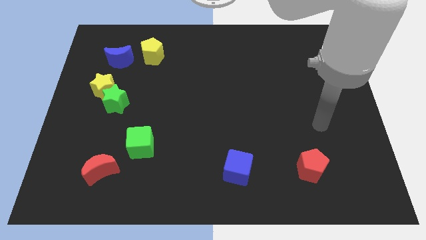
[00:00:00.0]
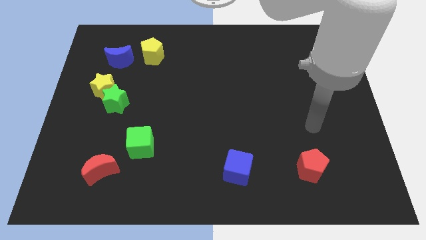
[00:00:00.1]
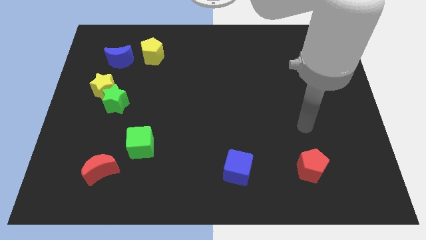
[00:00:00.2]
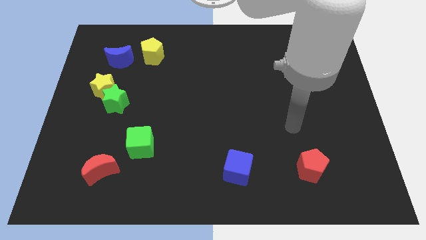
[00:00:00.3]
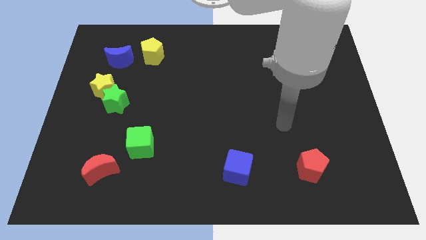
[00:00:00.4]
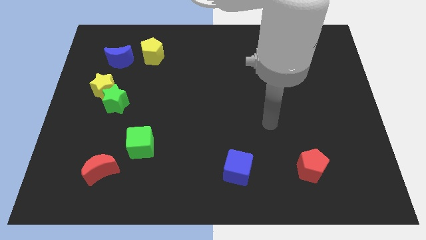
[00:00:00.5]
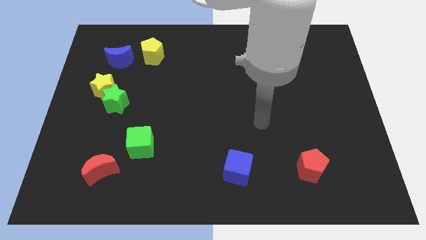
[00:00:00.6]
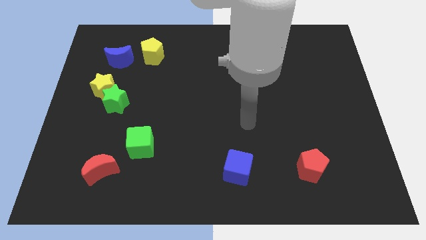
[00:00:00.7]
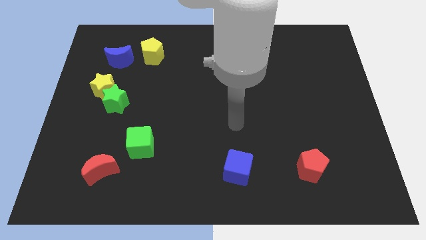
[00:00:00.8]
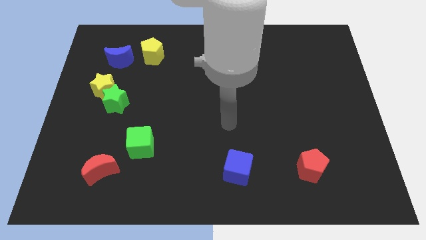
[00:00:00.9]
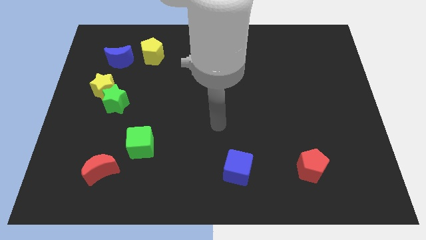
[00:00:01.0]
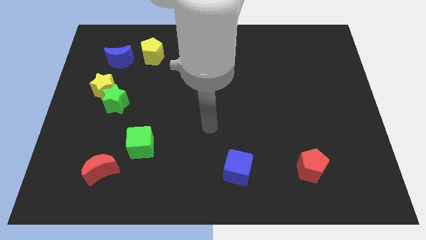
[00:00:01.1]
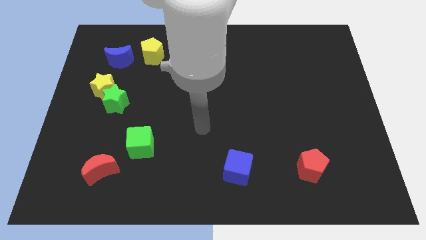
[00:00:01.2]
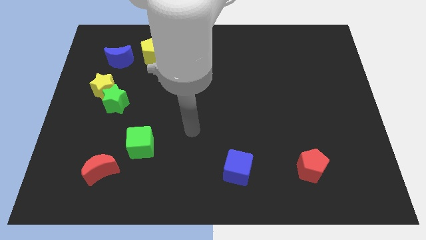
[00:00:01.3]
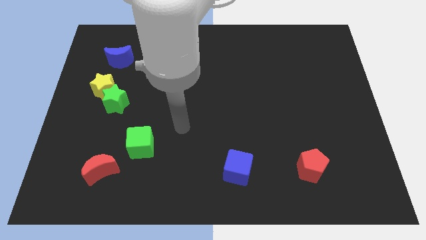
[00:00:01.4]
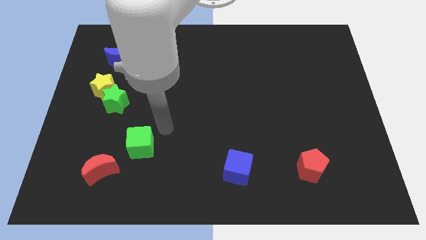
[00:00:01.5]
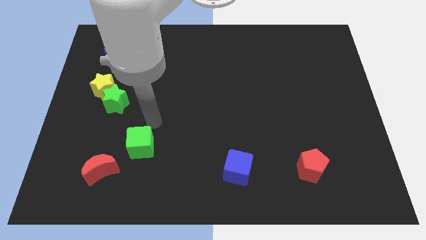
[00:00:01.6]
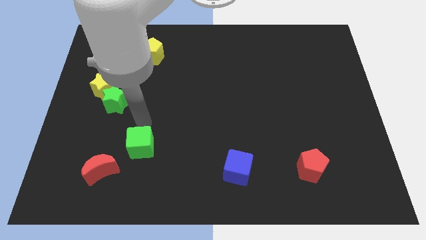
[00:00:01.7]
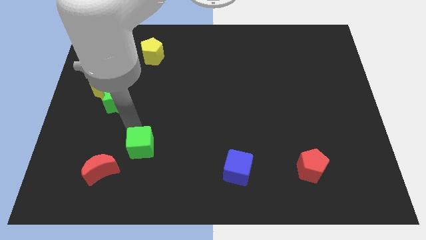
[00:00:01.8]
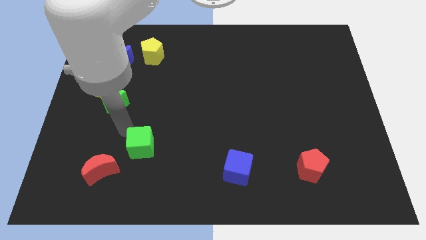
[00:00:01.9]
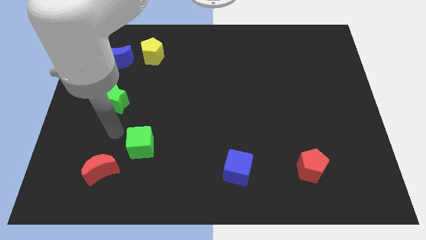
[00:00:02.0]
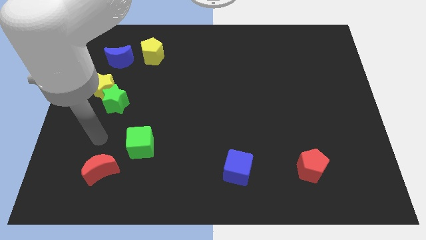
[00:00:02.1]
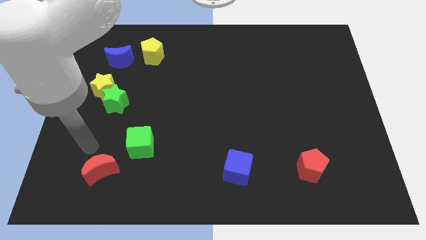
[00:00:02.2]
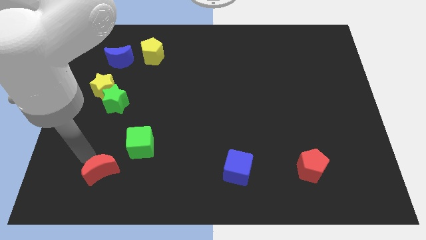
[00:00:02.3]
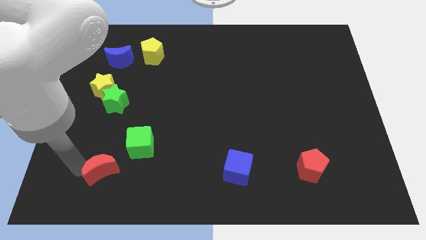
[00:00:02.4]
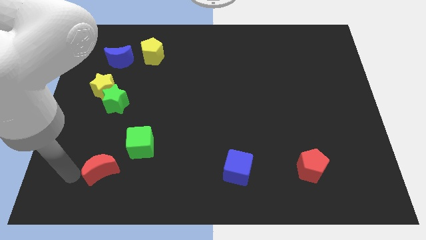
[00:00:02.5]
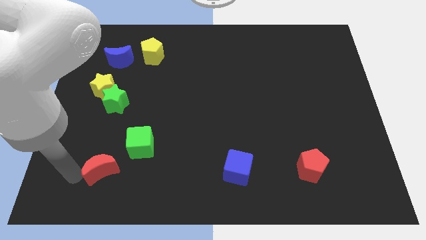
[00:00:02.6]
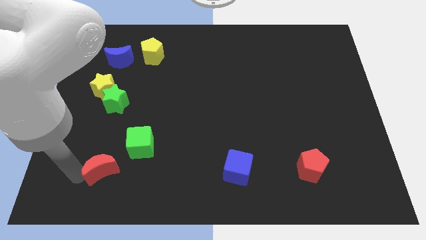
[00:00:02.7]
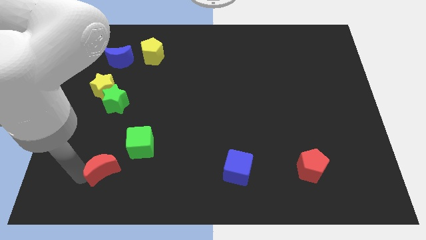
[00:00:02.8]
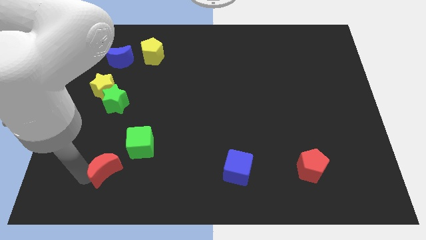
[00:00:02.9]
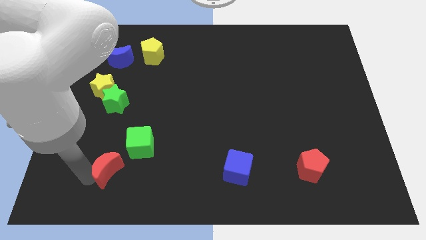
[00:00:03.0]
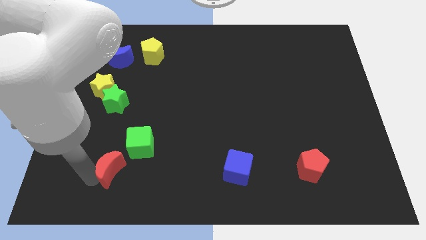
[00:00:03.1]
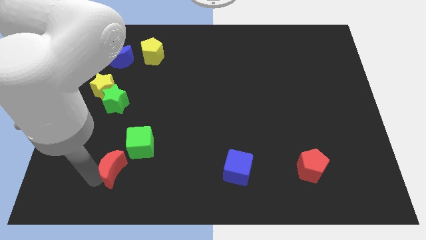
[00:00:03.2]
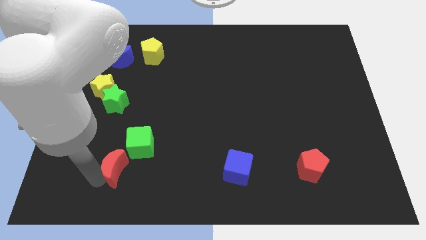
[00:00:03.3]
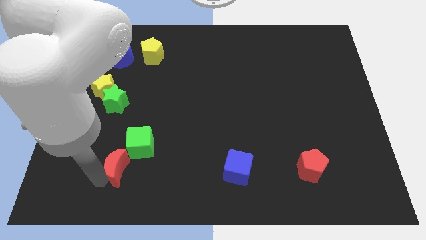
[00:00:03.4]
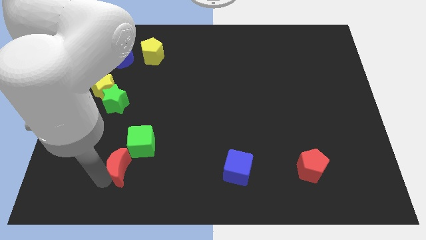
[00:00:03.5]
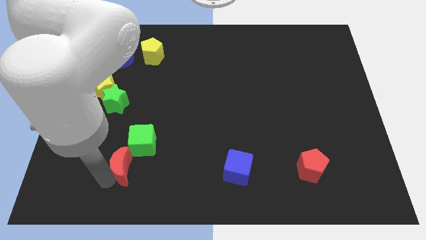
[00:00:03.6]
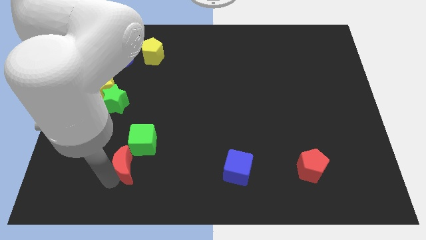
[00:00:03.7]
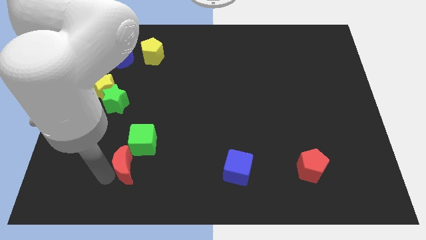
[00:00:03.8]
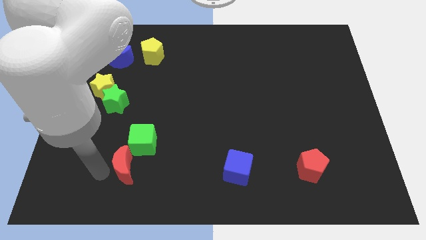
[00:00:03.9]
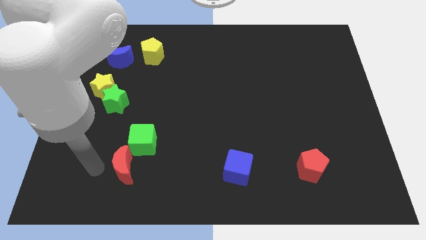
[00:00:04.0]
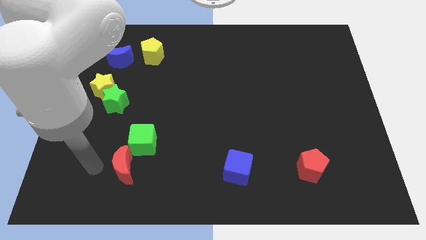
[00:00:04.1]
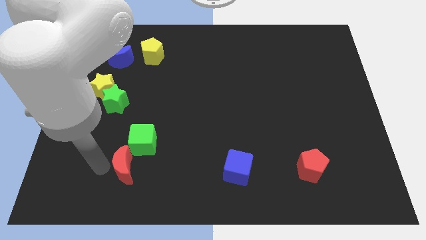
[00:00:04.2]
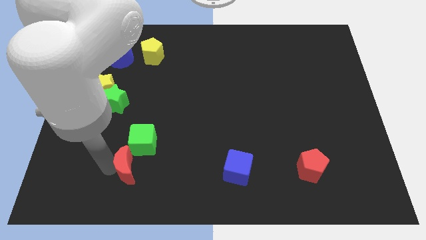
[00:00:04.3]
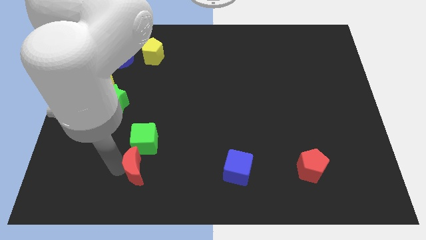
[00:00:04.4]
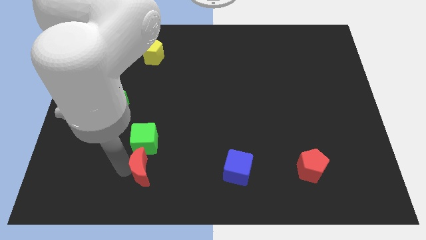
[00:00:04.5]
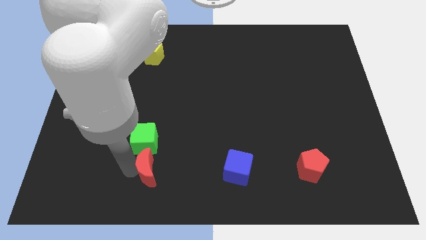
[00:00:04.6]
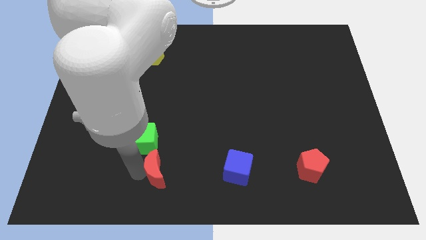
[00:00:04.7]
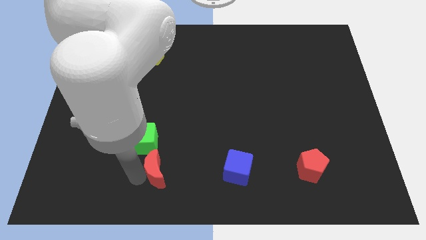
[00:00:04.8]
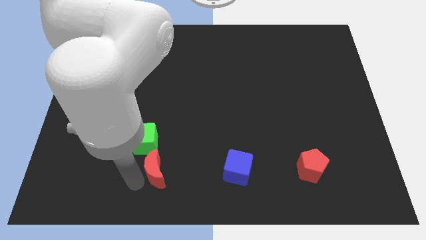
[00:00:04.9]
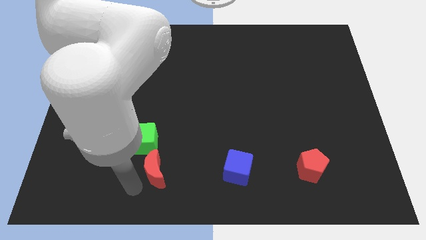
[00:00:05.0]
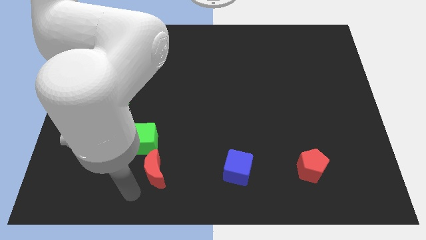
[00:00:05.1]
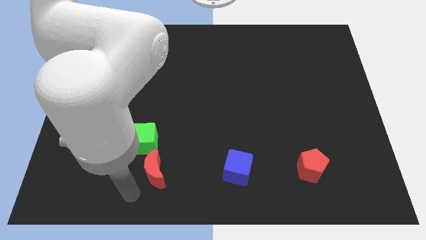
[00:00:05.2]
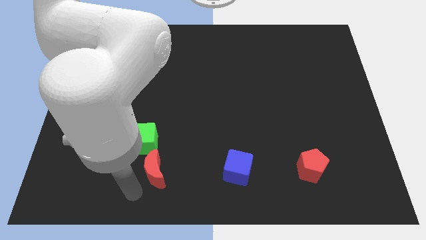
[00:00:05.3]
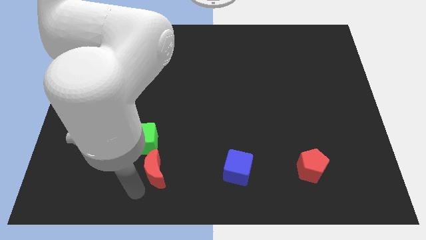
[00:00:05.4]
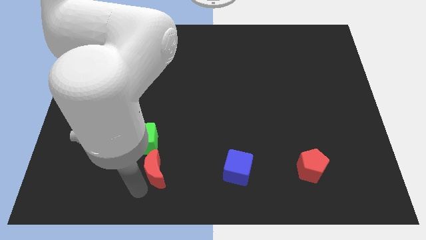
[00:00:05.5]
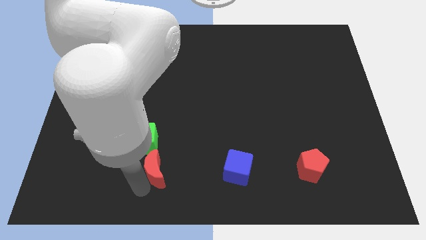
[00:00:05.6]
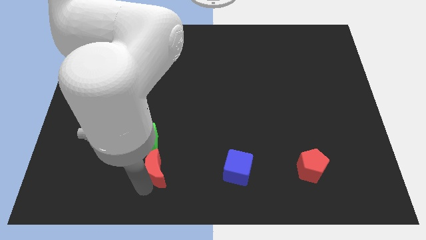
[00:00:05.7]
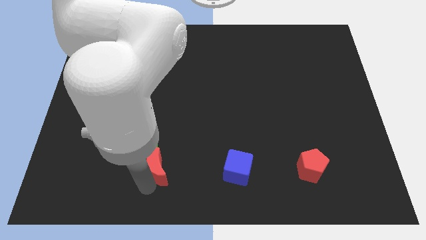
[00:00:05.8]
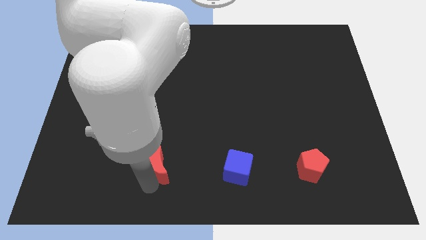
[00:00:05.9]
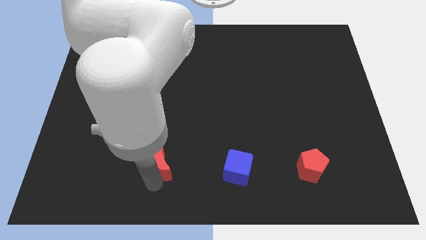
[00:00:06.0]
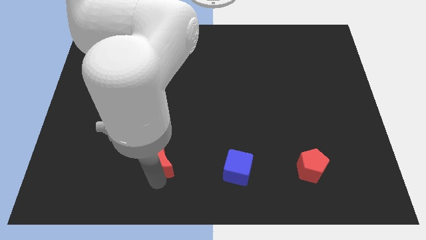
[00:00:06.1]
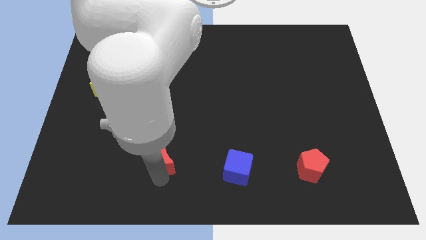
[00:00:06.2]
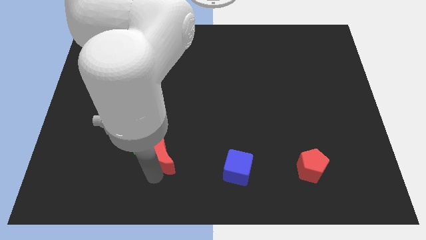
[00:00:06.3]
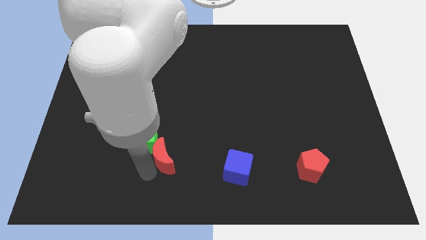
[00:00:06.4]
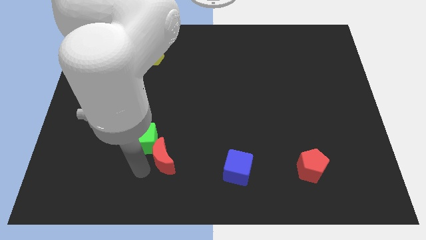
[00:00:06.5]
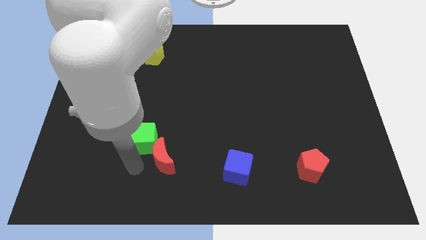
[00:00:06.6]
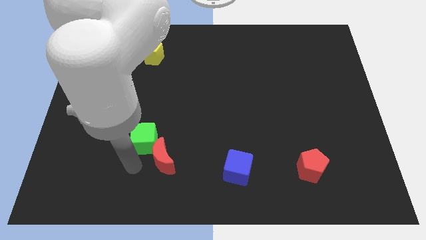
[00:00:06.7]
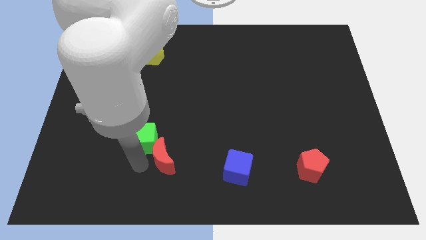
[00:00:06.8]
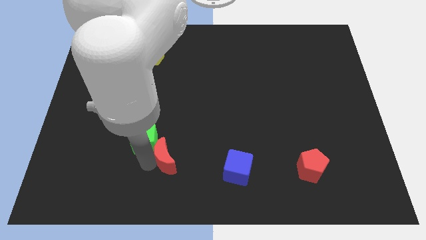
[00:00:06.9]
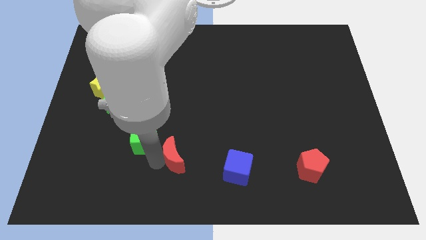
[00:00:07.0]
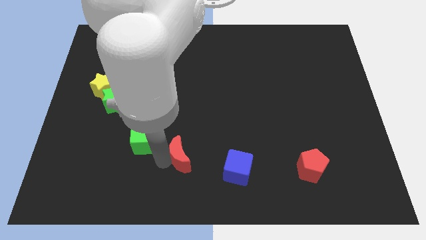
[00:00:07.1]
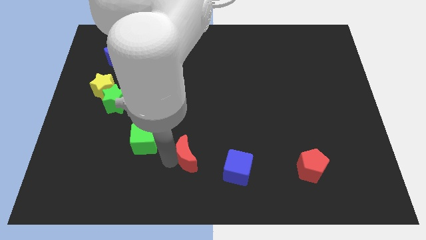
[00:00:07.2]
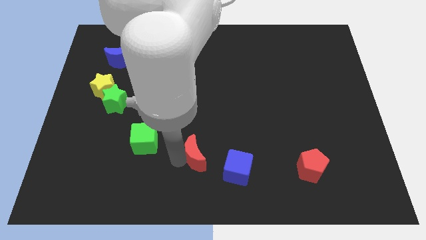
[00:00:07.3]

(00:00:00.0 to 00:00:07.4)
move the red moon to the top left of the blue cube

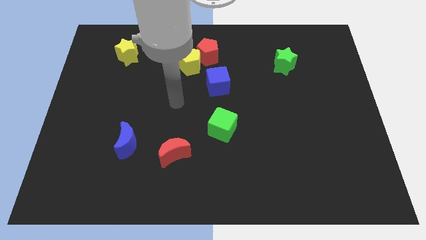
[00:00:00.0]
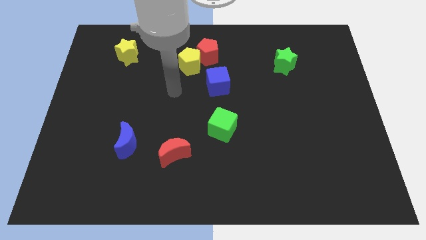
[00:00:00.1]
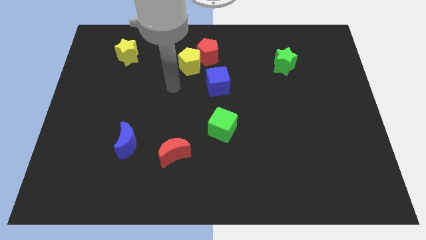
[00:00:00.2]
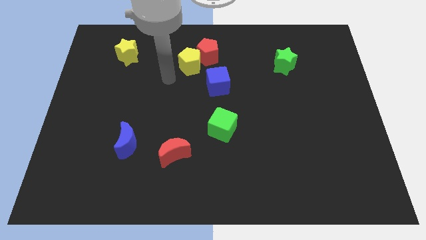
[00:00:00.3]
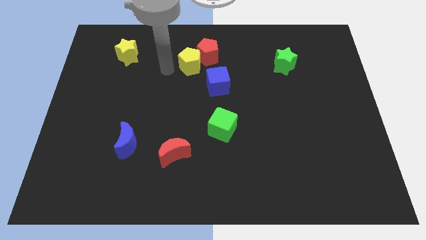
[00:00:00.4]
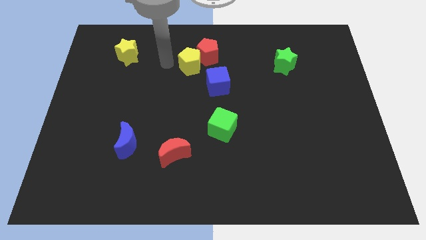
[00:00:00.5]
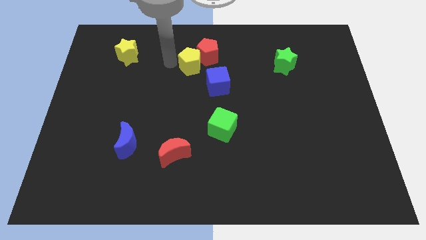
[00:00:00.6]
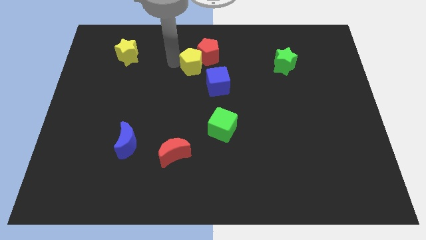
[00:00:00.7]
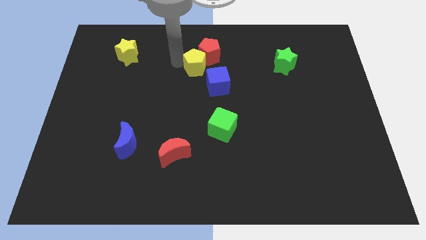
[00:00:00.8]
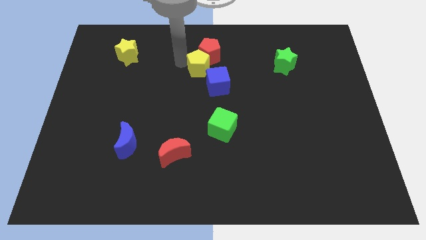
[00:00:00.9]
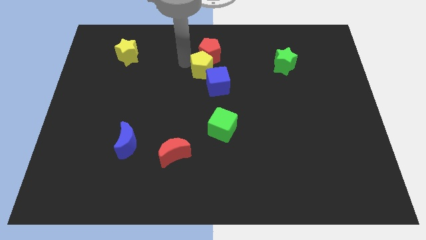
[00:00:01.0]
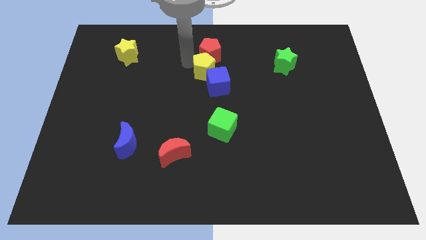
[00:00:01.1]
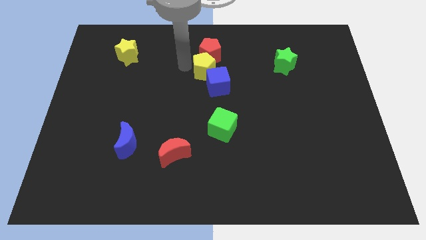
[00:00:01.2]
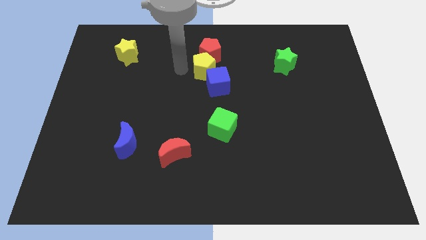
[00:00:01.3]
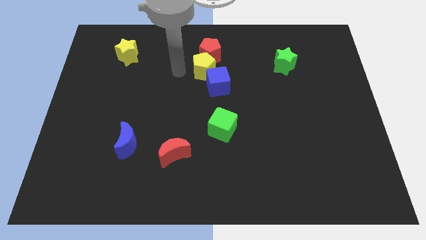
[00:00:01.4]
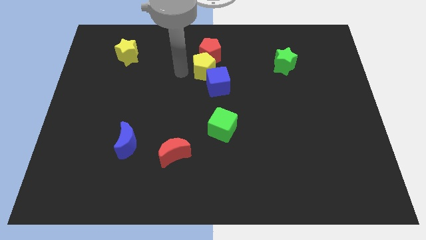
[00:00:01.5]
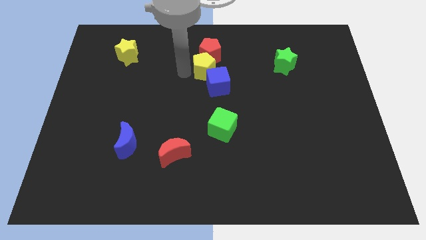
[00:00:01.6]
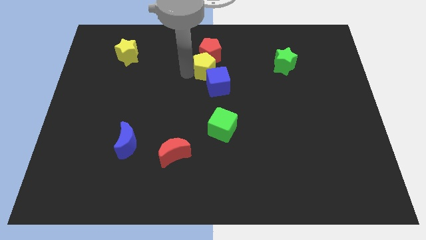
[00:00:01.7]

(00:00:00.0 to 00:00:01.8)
slide the yellow pentagon to the bottom right of the red pentagon
